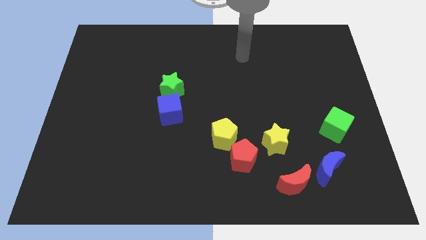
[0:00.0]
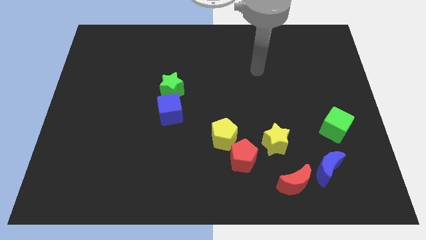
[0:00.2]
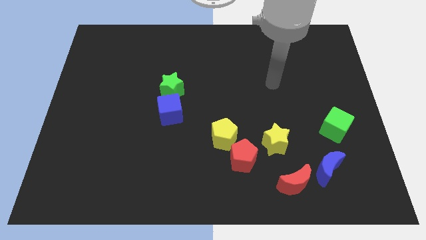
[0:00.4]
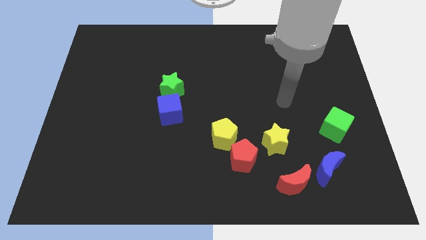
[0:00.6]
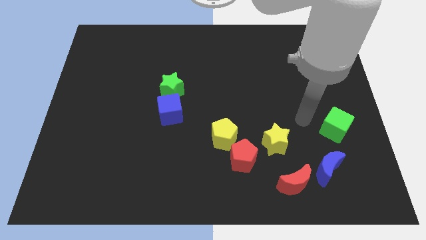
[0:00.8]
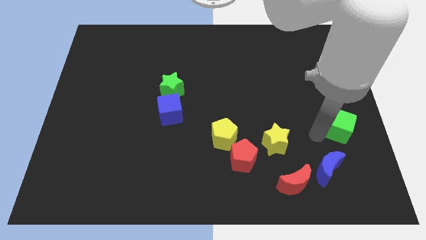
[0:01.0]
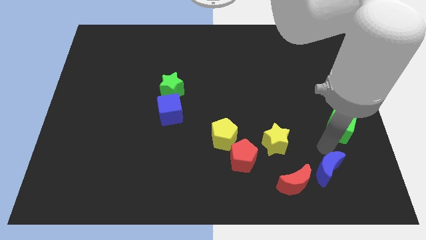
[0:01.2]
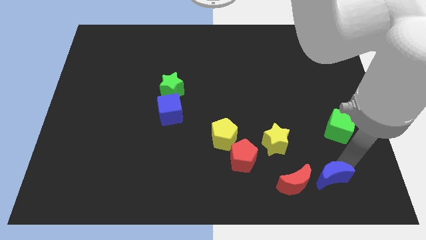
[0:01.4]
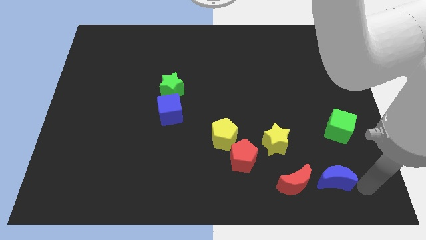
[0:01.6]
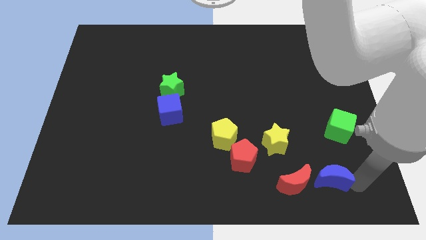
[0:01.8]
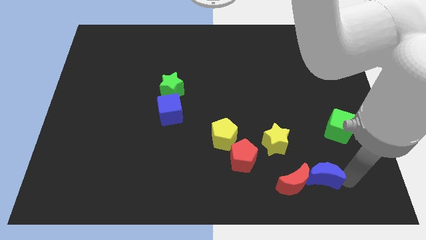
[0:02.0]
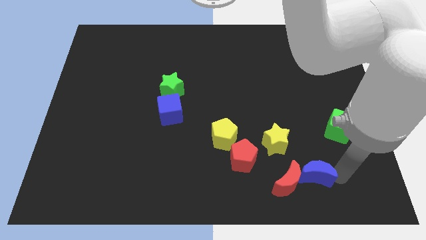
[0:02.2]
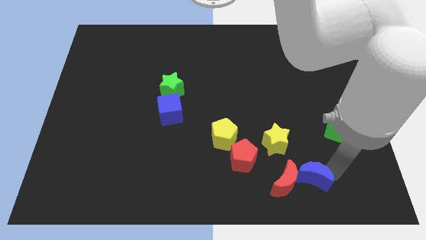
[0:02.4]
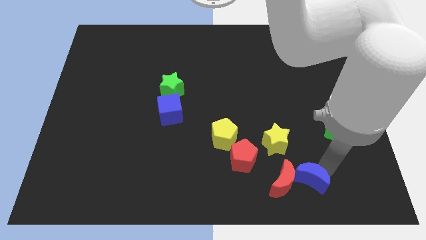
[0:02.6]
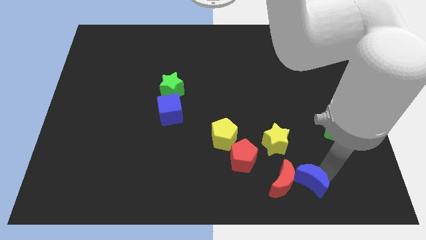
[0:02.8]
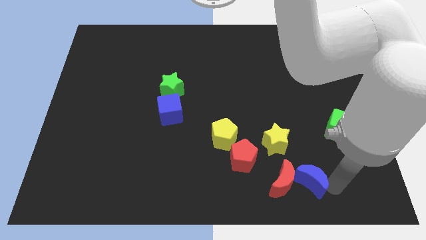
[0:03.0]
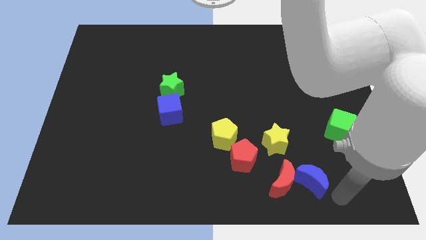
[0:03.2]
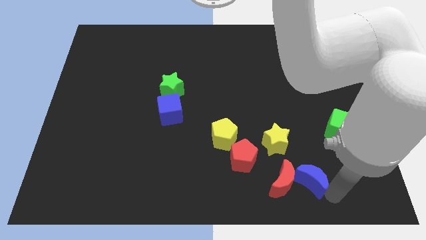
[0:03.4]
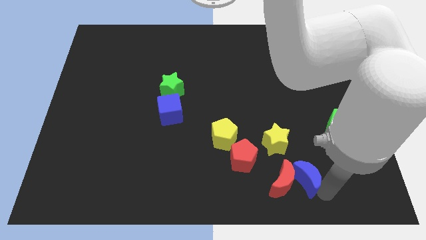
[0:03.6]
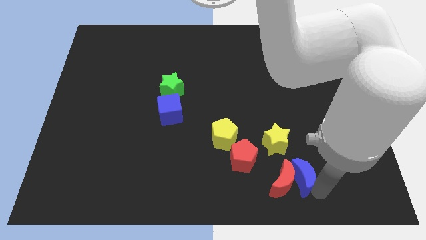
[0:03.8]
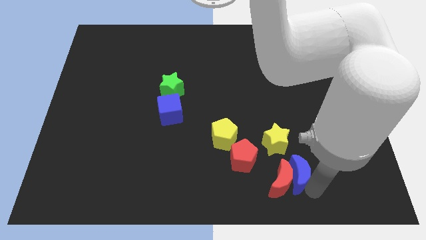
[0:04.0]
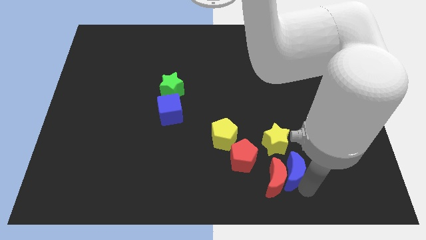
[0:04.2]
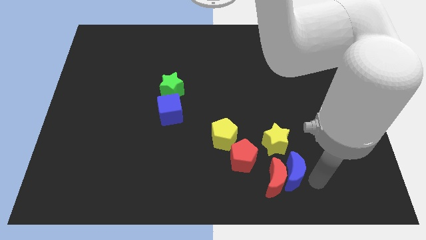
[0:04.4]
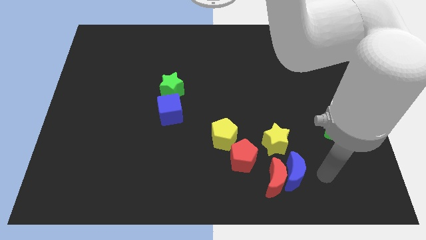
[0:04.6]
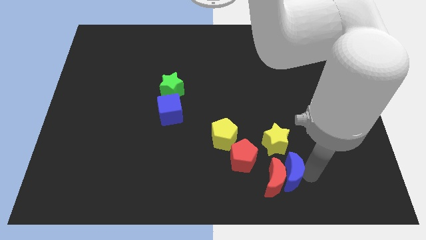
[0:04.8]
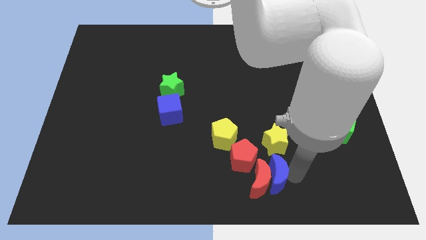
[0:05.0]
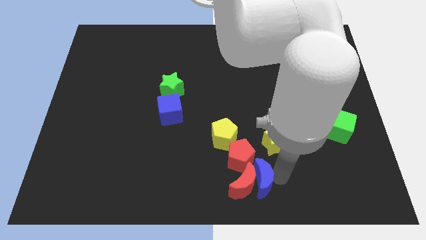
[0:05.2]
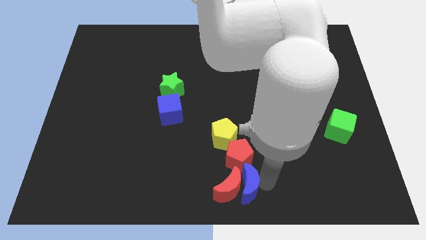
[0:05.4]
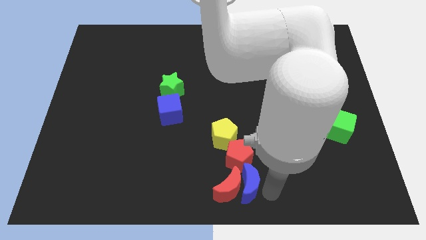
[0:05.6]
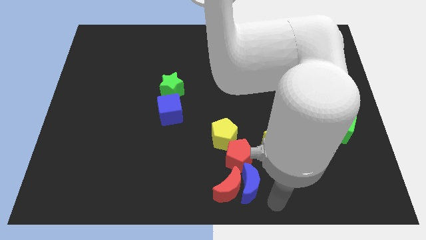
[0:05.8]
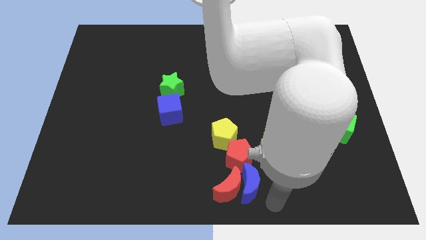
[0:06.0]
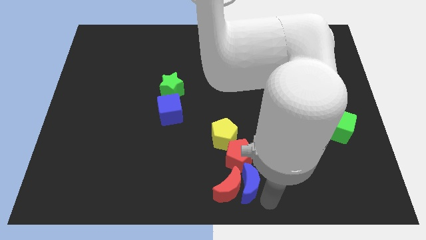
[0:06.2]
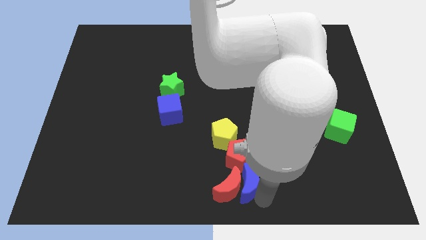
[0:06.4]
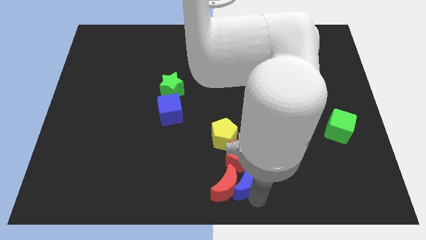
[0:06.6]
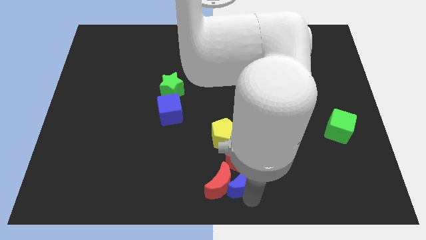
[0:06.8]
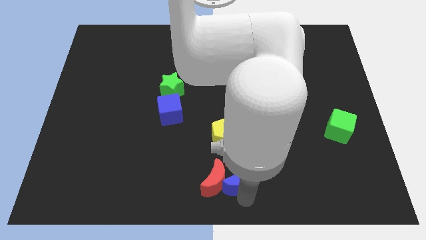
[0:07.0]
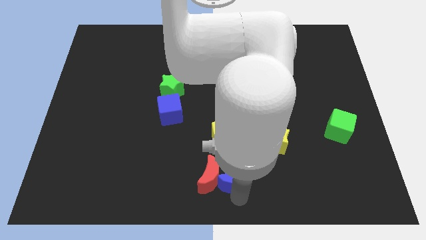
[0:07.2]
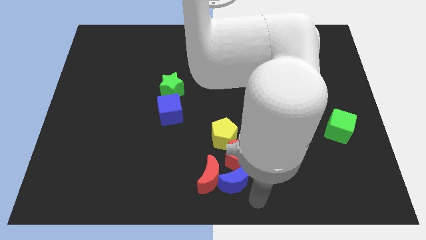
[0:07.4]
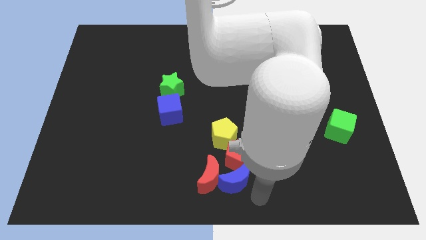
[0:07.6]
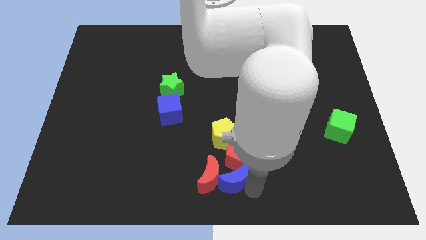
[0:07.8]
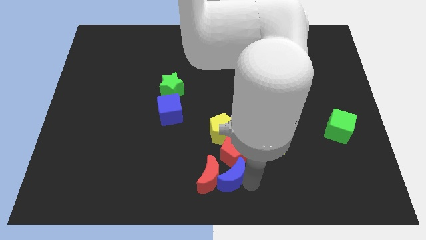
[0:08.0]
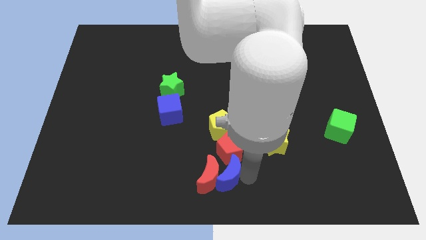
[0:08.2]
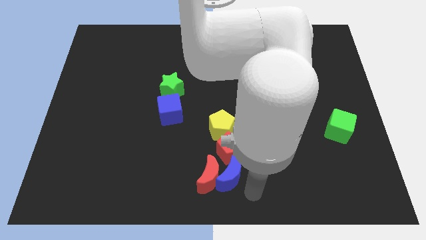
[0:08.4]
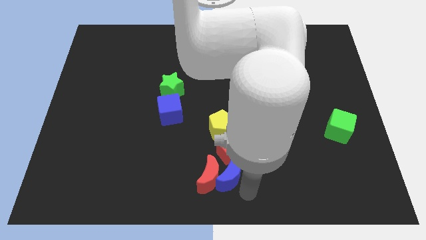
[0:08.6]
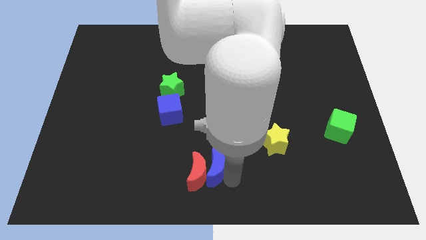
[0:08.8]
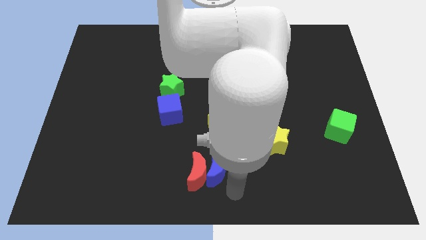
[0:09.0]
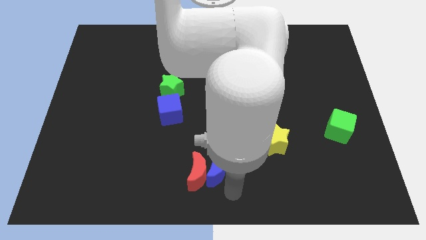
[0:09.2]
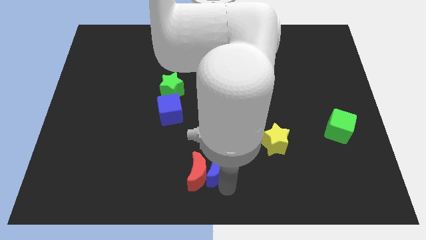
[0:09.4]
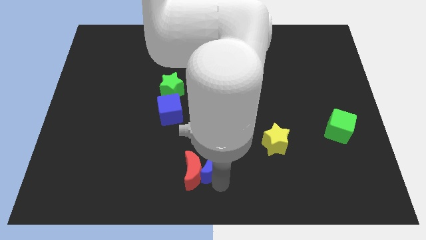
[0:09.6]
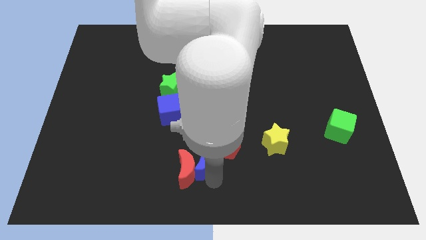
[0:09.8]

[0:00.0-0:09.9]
move the blue moon to the bottom left of the yellow pentagon

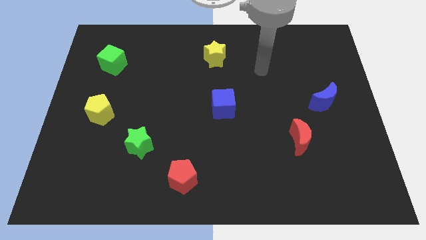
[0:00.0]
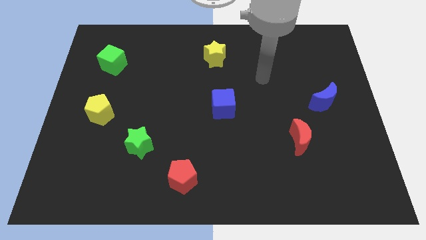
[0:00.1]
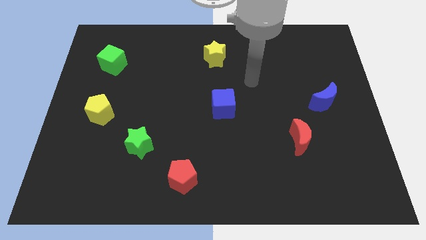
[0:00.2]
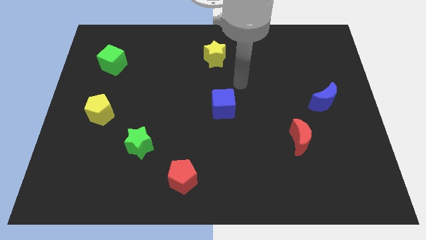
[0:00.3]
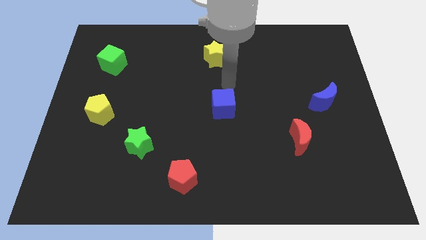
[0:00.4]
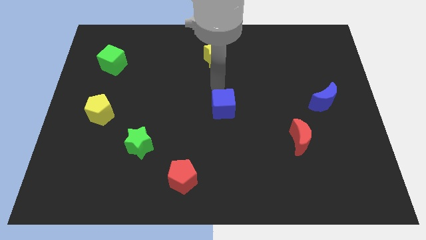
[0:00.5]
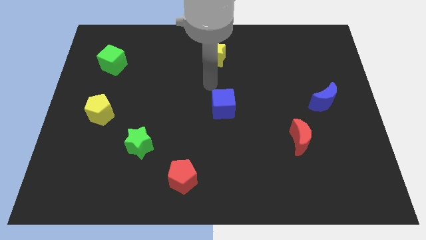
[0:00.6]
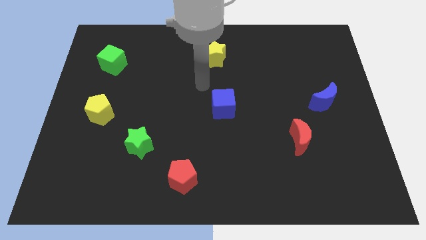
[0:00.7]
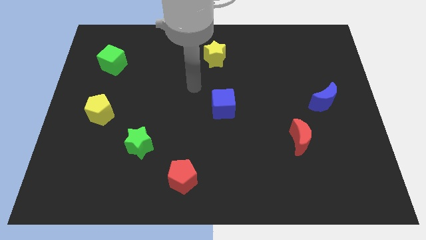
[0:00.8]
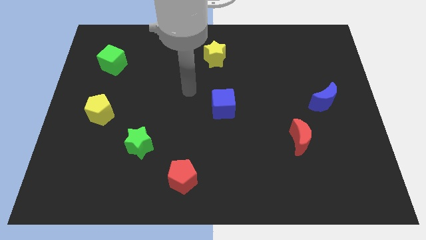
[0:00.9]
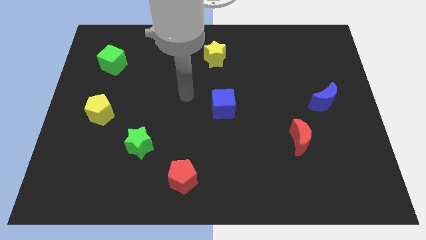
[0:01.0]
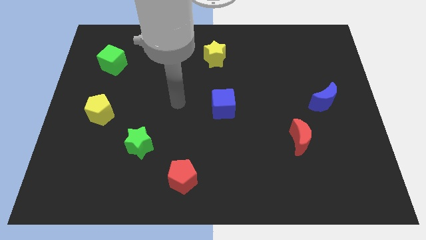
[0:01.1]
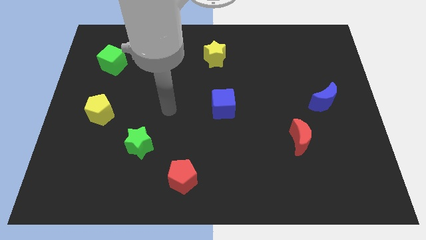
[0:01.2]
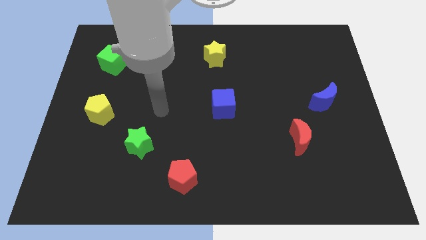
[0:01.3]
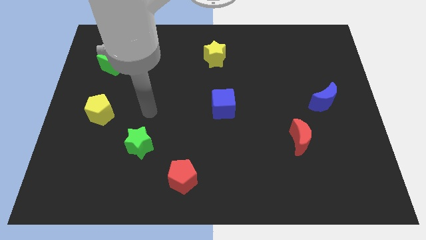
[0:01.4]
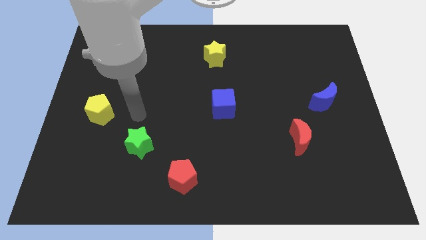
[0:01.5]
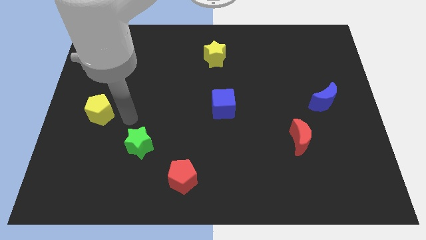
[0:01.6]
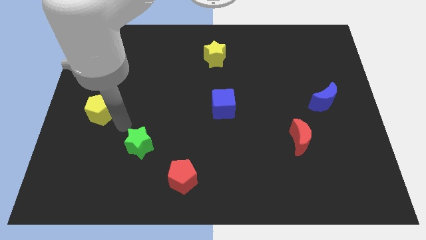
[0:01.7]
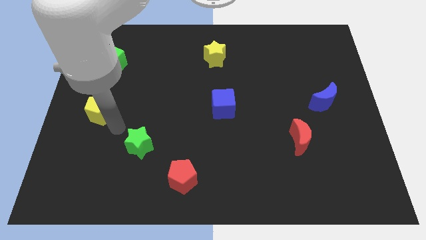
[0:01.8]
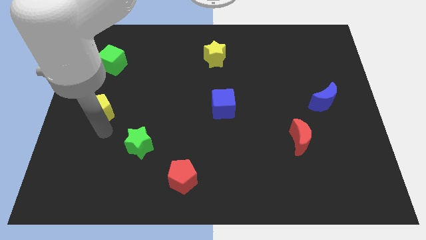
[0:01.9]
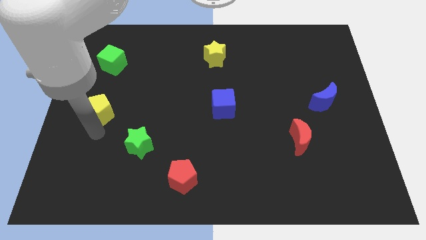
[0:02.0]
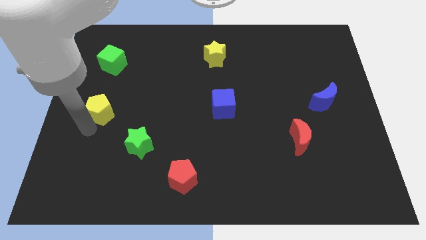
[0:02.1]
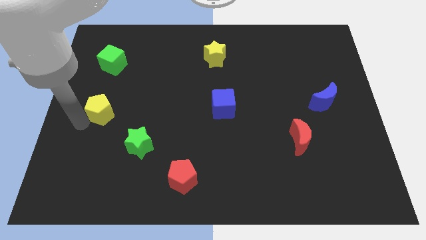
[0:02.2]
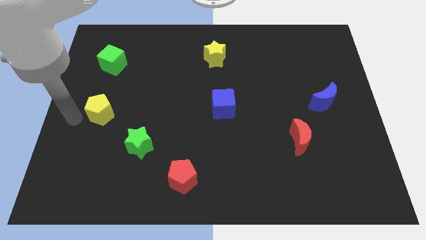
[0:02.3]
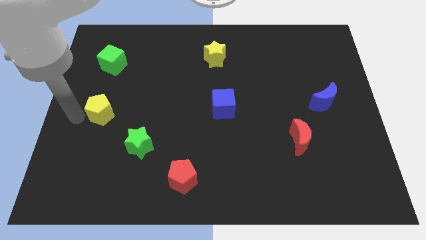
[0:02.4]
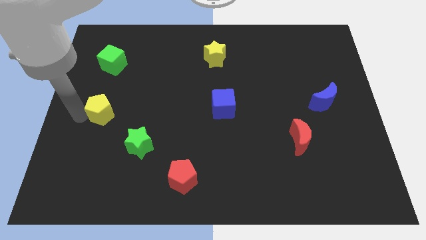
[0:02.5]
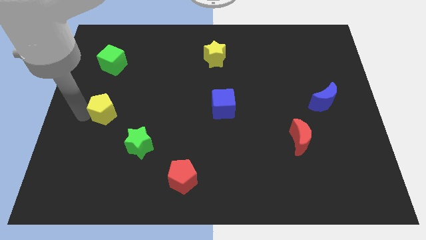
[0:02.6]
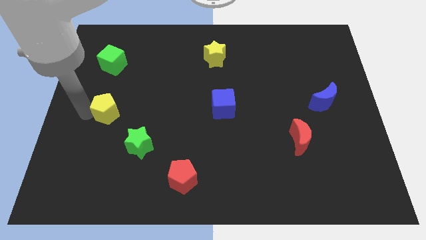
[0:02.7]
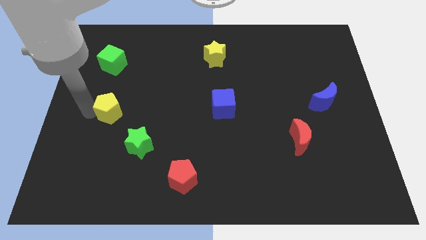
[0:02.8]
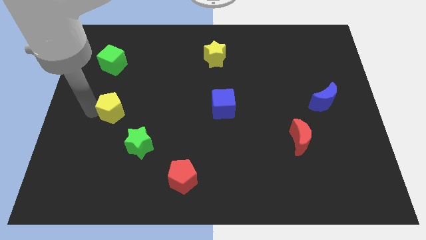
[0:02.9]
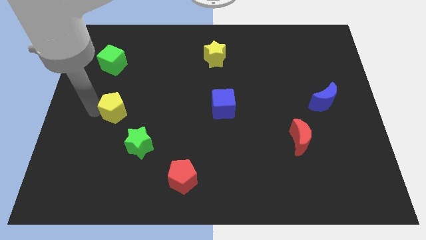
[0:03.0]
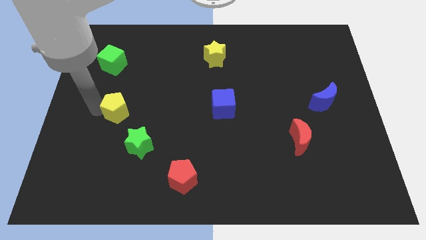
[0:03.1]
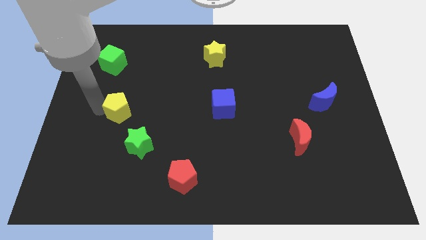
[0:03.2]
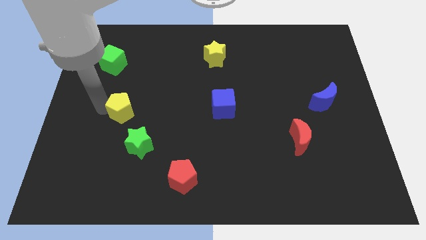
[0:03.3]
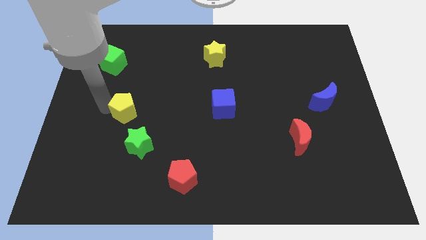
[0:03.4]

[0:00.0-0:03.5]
push the yellow pentagon above the green star
